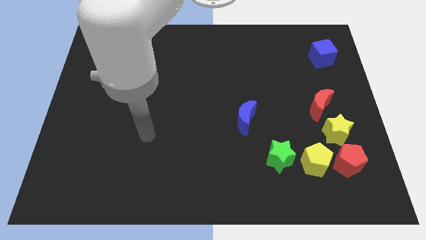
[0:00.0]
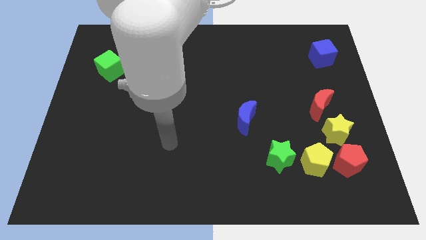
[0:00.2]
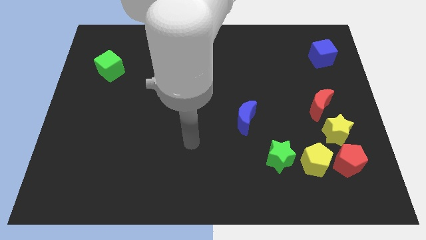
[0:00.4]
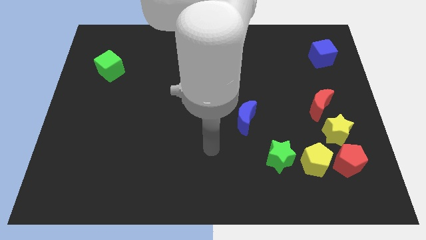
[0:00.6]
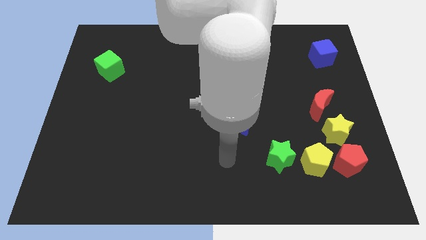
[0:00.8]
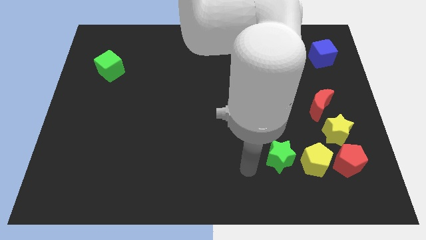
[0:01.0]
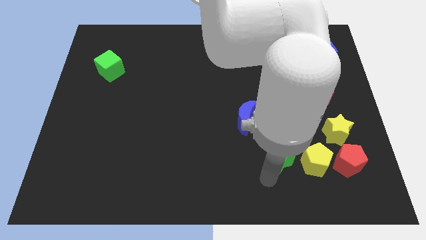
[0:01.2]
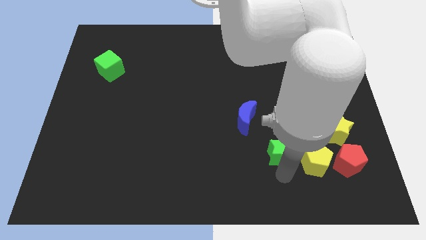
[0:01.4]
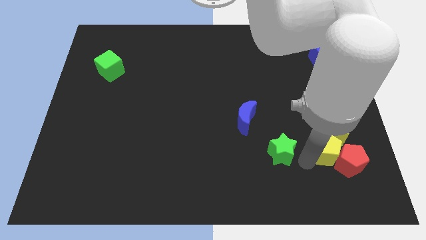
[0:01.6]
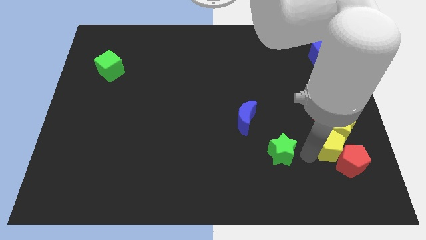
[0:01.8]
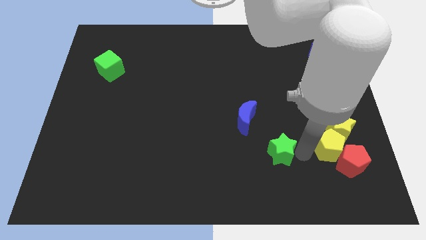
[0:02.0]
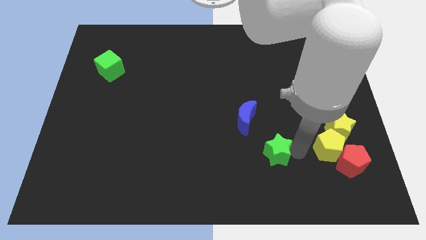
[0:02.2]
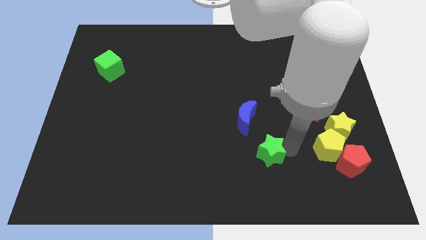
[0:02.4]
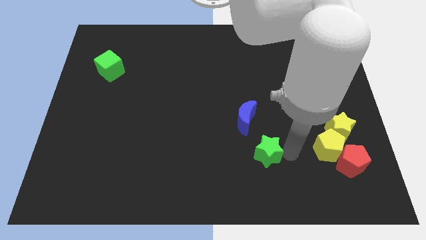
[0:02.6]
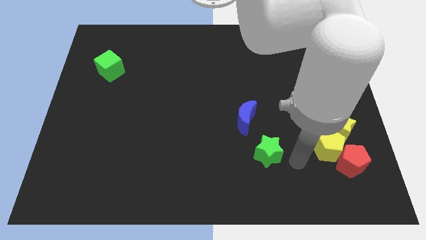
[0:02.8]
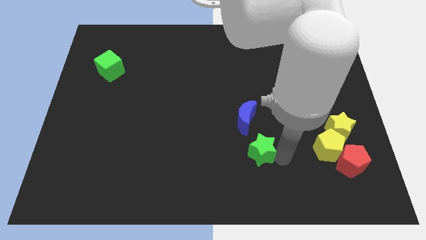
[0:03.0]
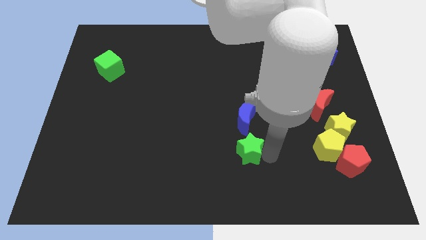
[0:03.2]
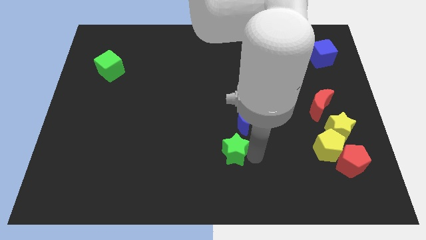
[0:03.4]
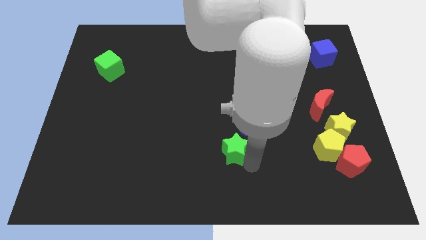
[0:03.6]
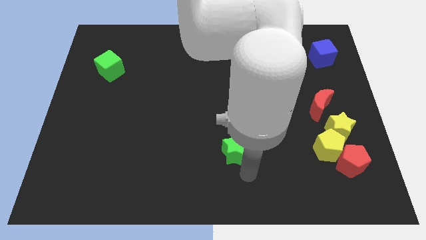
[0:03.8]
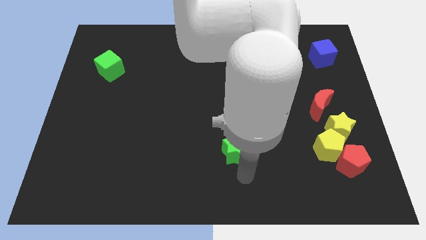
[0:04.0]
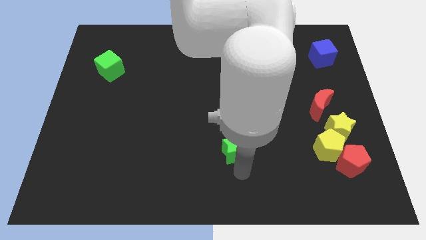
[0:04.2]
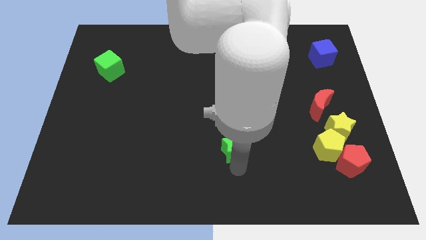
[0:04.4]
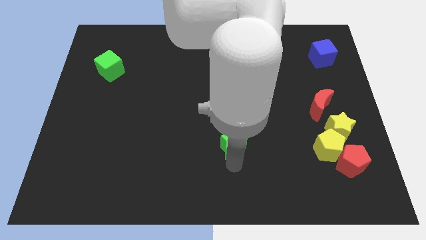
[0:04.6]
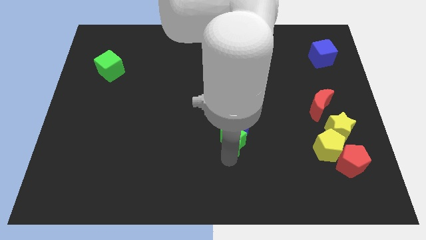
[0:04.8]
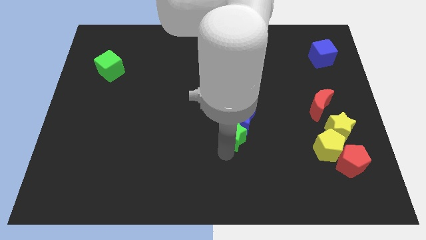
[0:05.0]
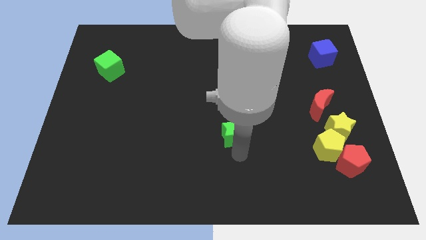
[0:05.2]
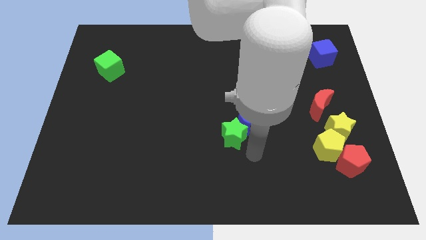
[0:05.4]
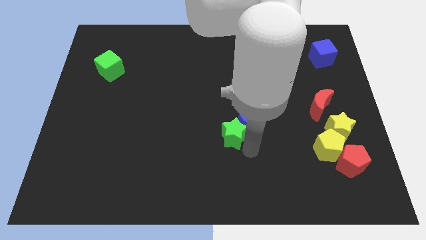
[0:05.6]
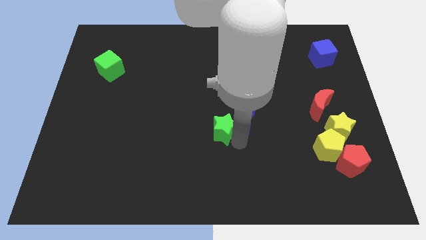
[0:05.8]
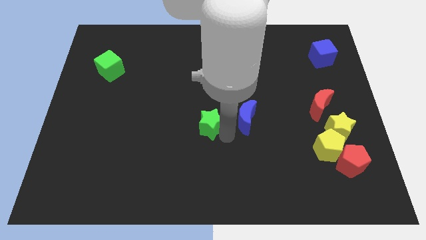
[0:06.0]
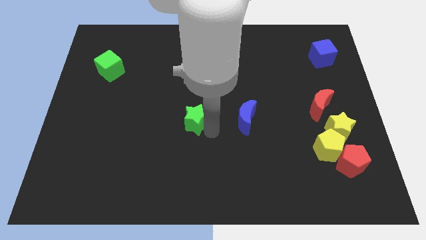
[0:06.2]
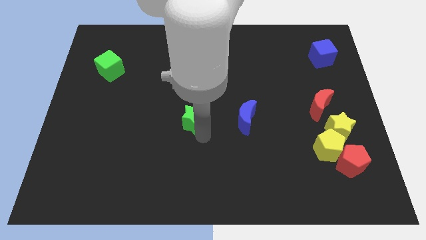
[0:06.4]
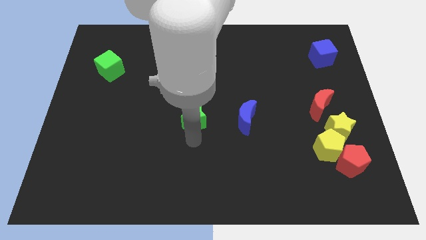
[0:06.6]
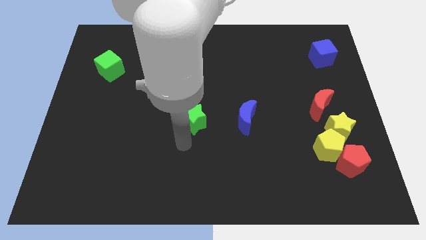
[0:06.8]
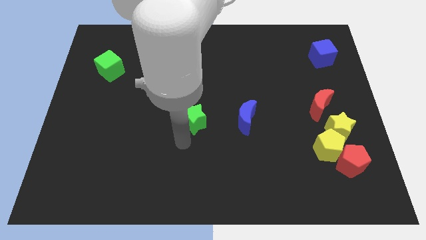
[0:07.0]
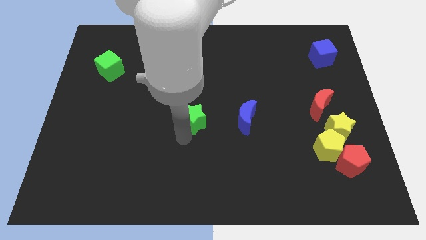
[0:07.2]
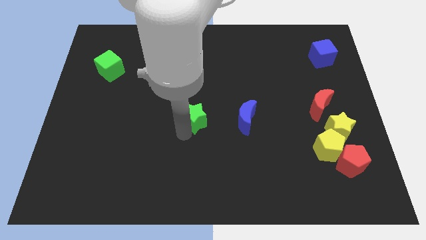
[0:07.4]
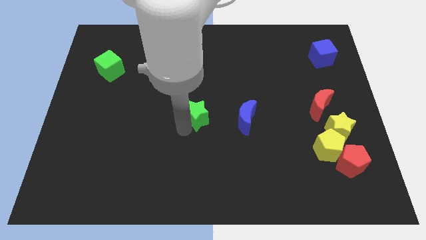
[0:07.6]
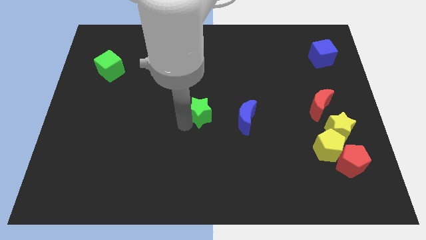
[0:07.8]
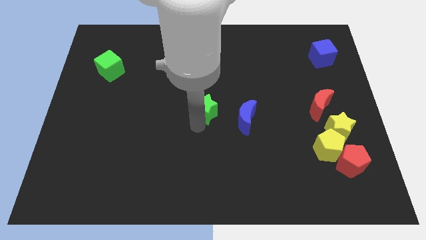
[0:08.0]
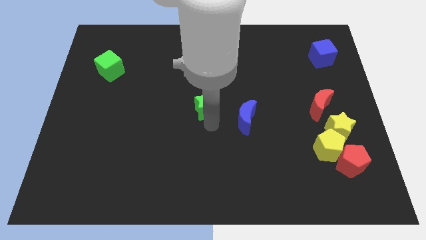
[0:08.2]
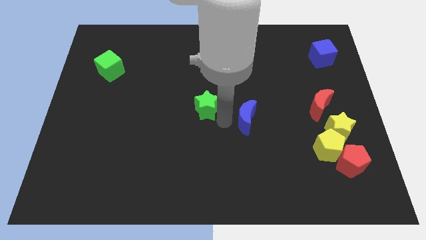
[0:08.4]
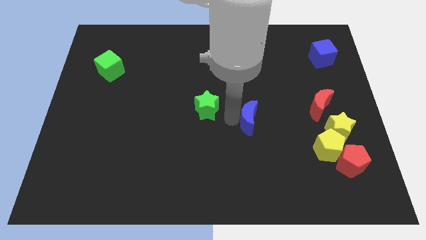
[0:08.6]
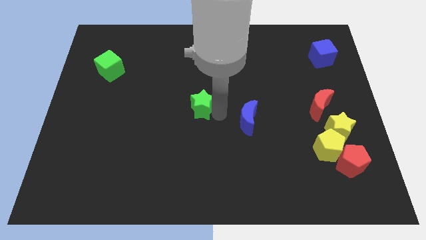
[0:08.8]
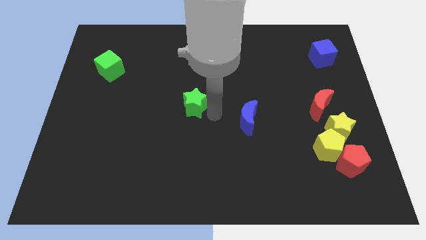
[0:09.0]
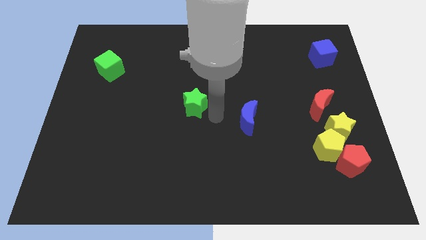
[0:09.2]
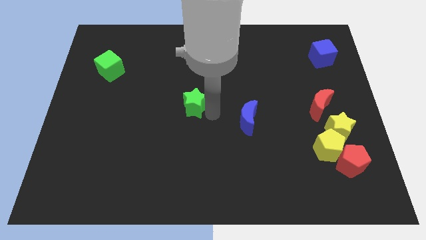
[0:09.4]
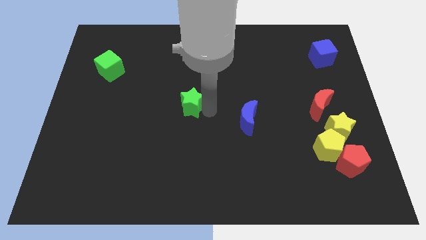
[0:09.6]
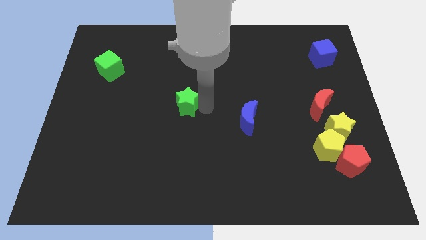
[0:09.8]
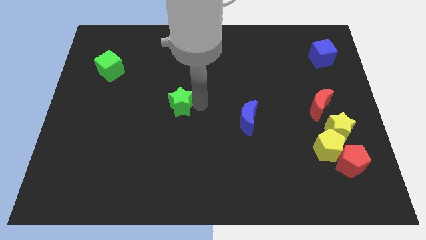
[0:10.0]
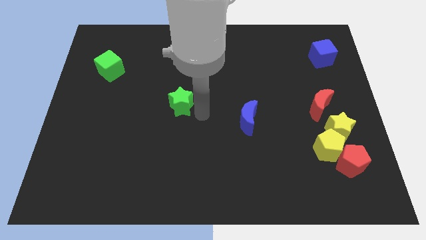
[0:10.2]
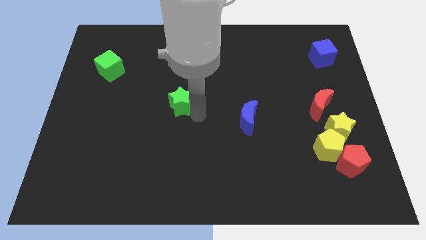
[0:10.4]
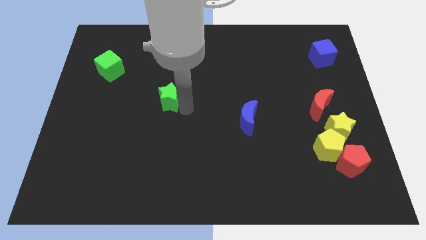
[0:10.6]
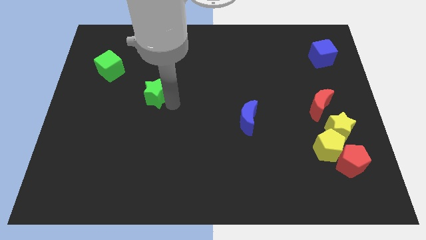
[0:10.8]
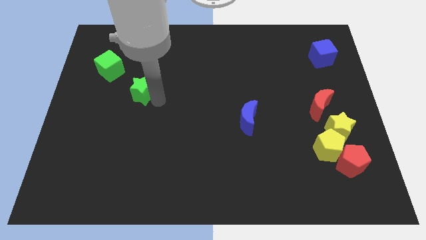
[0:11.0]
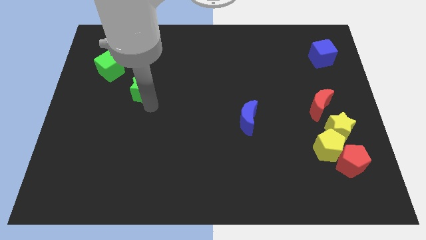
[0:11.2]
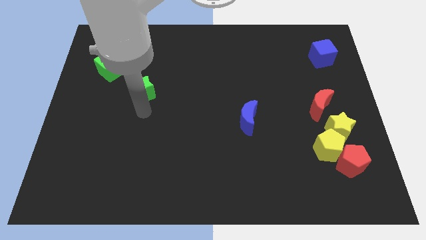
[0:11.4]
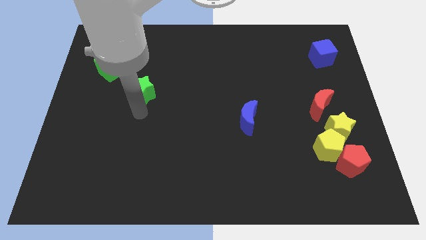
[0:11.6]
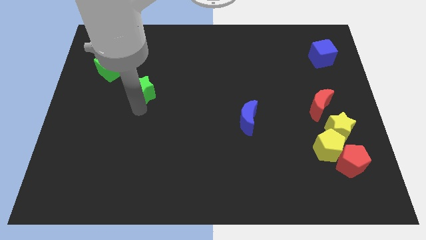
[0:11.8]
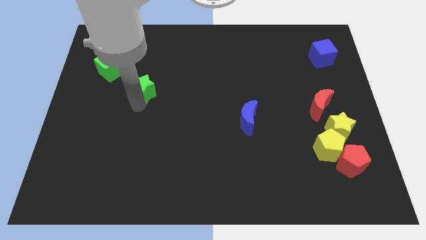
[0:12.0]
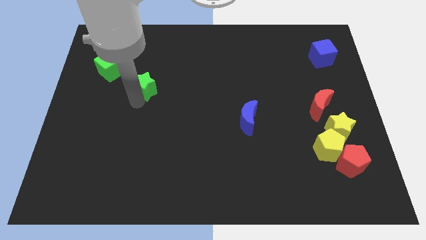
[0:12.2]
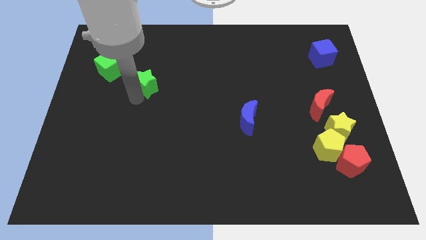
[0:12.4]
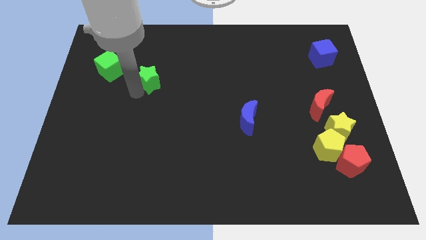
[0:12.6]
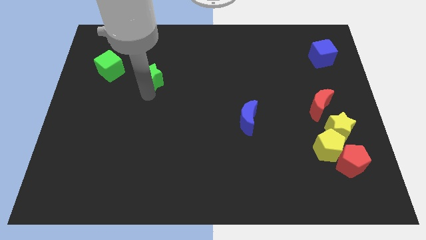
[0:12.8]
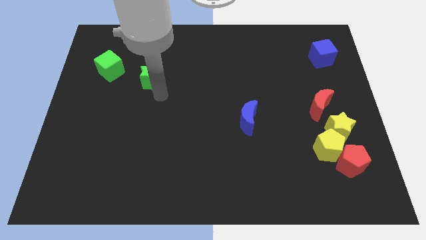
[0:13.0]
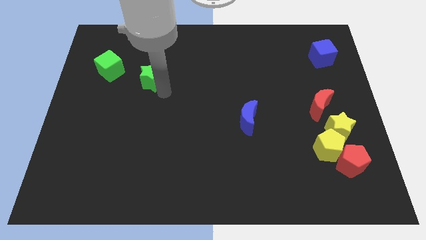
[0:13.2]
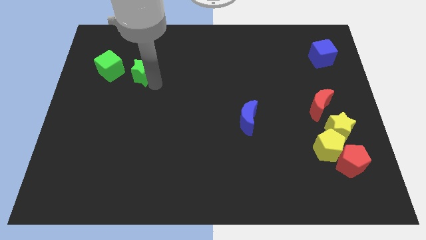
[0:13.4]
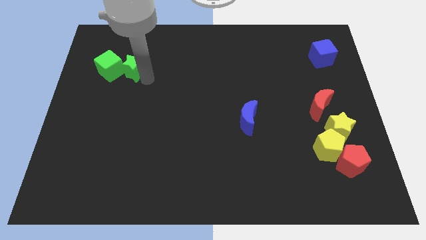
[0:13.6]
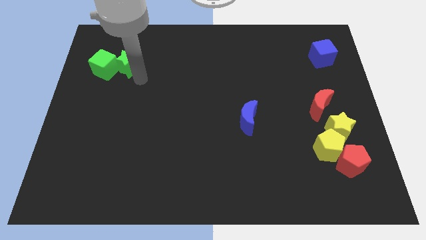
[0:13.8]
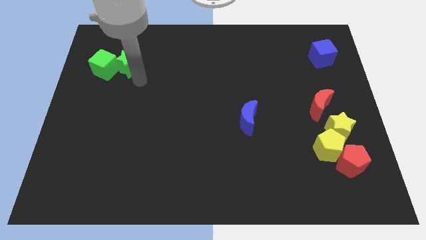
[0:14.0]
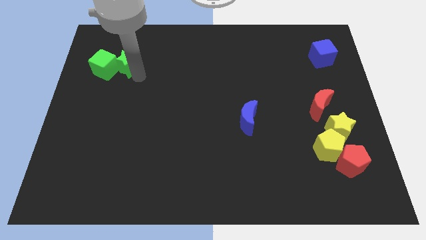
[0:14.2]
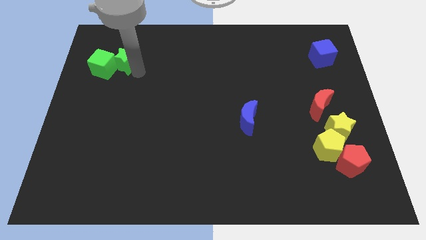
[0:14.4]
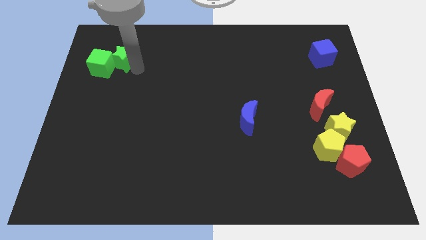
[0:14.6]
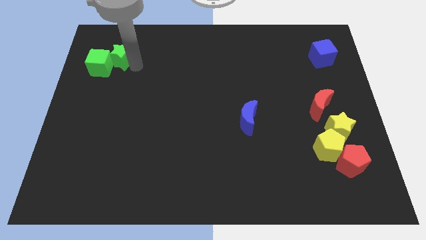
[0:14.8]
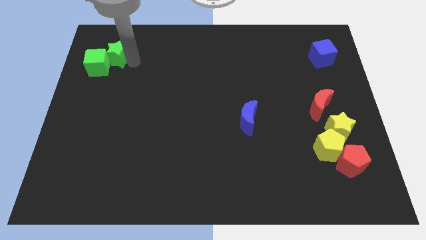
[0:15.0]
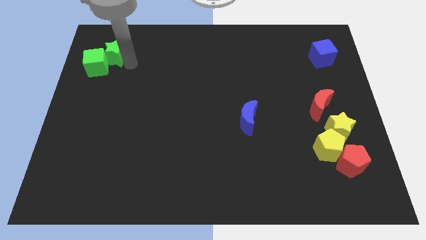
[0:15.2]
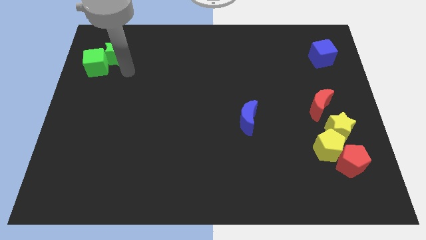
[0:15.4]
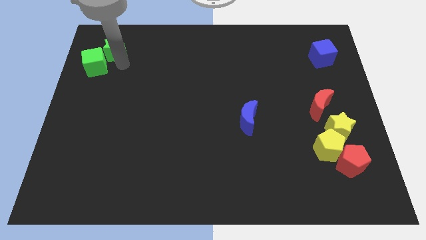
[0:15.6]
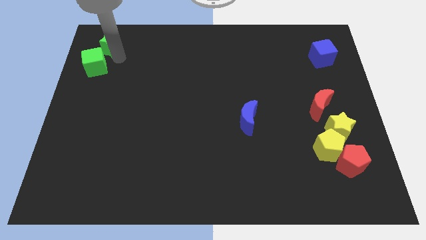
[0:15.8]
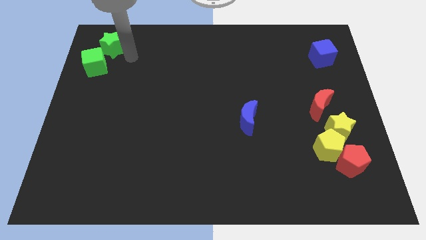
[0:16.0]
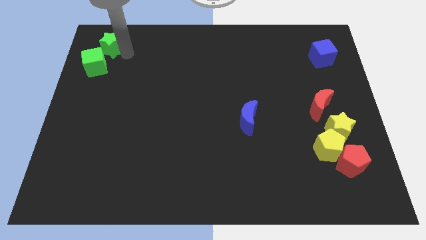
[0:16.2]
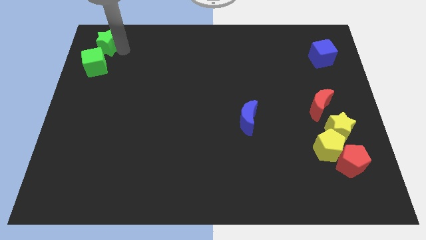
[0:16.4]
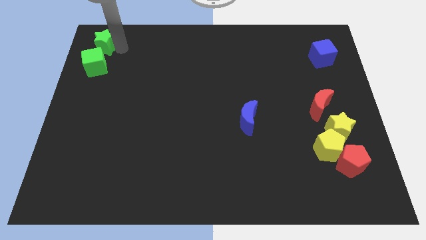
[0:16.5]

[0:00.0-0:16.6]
put the green star to the top left corner
